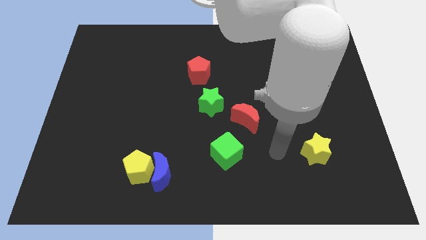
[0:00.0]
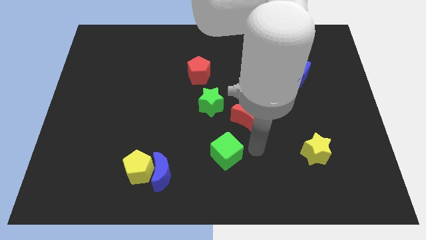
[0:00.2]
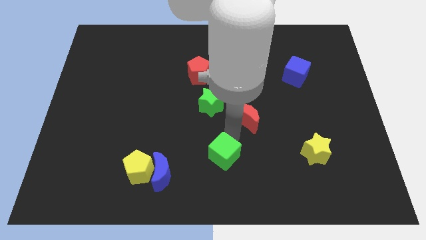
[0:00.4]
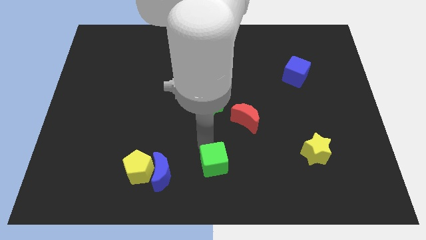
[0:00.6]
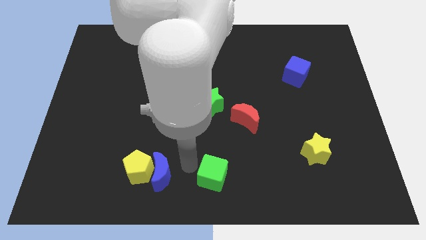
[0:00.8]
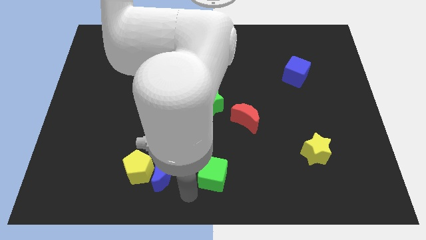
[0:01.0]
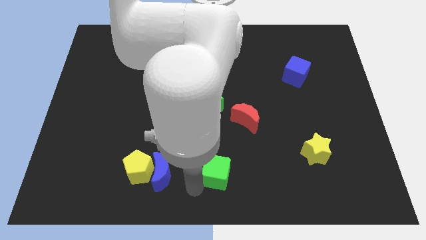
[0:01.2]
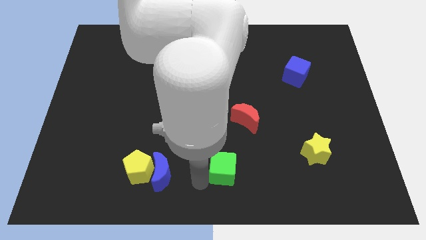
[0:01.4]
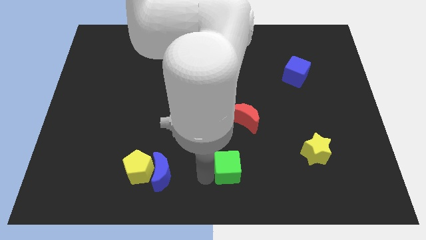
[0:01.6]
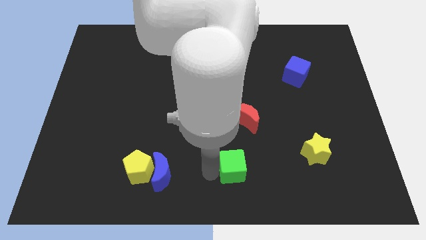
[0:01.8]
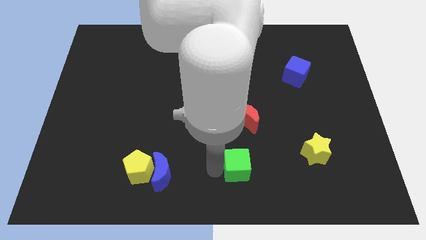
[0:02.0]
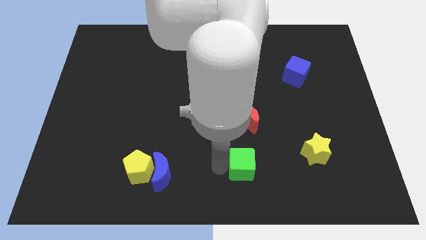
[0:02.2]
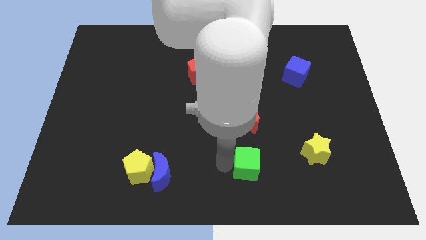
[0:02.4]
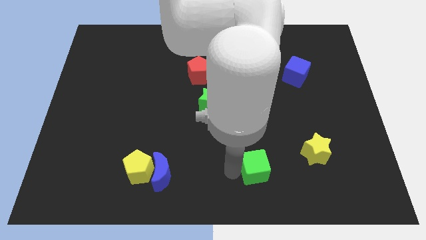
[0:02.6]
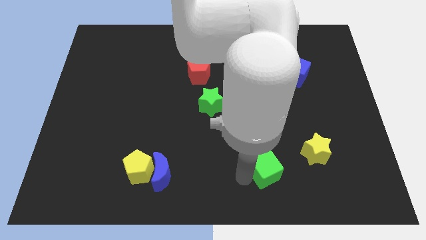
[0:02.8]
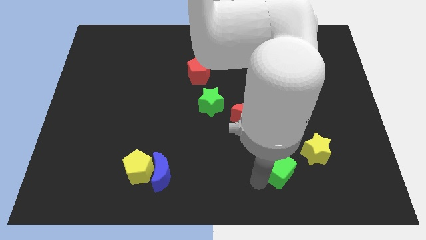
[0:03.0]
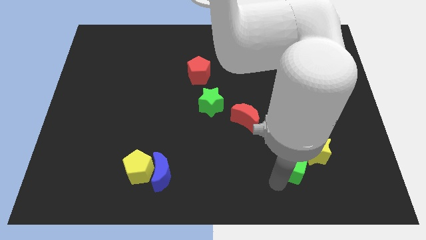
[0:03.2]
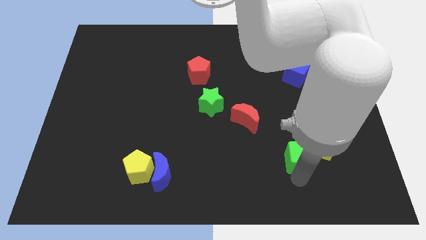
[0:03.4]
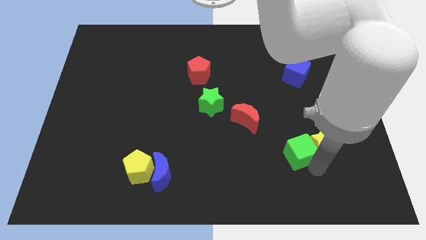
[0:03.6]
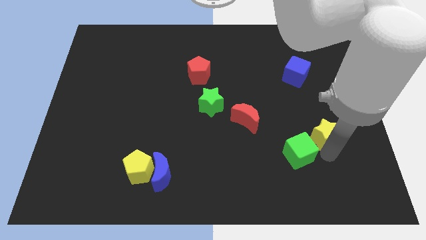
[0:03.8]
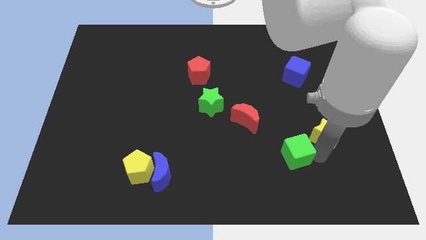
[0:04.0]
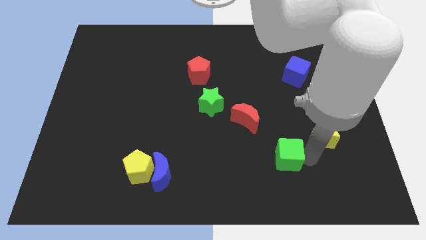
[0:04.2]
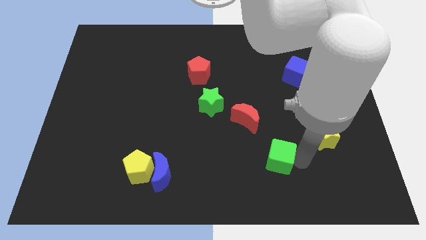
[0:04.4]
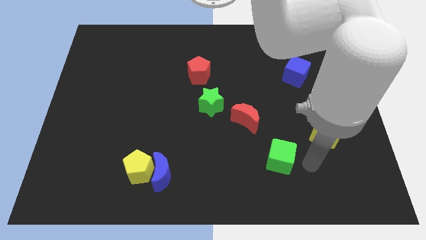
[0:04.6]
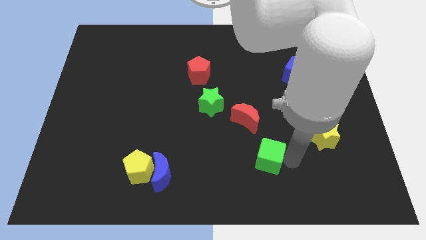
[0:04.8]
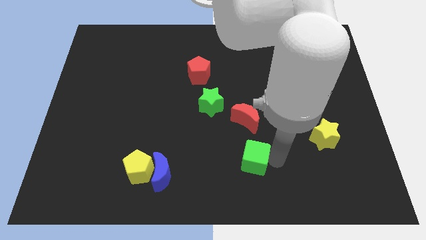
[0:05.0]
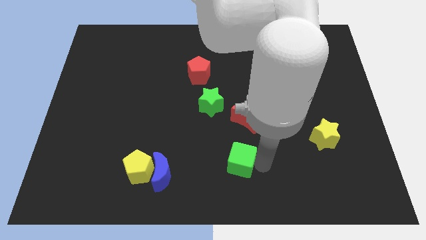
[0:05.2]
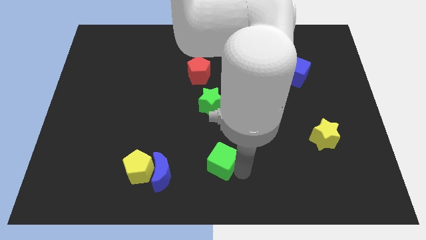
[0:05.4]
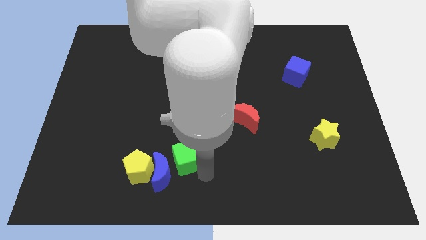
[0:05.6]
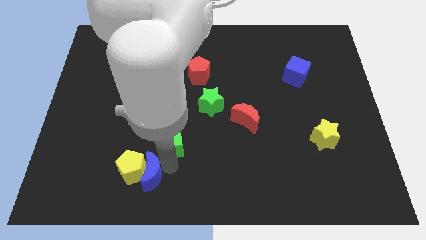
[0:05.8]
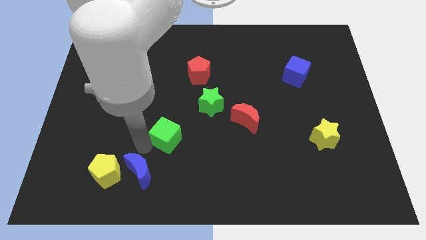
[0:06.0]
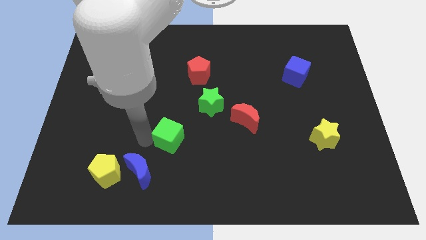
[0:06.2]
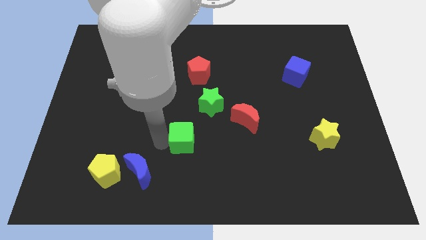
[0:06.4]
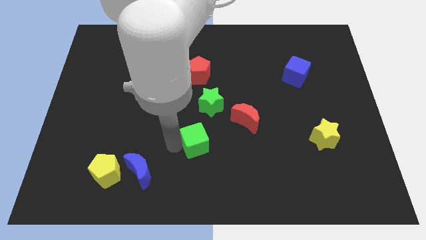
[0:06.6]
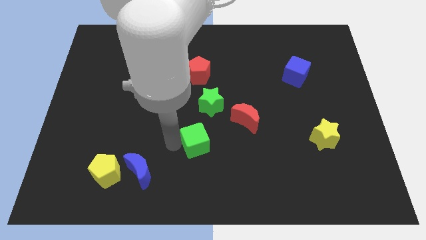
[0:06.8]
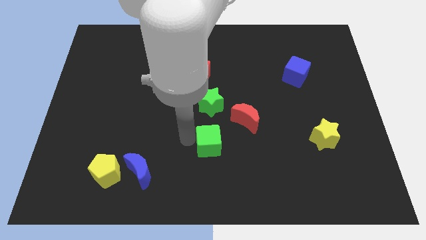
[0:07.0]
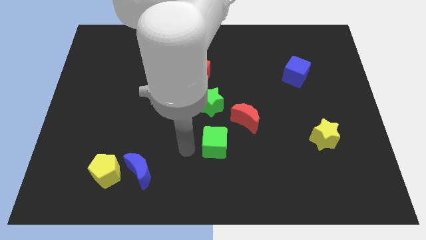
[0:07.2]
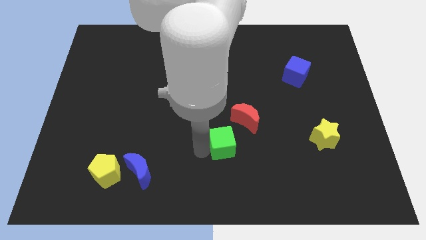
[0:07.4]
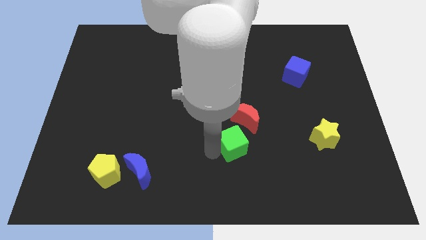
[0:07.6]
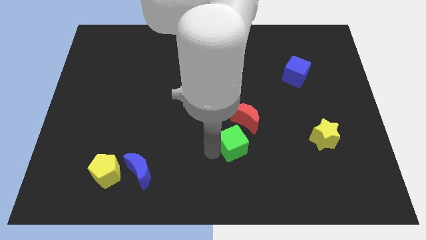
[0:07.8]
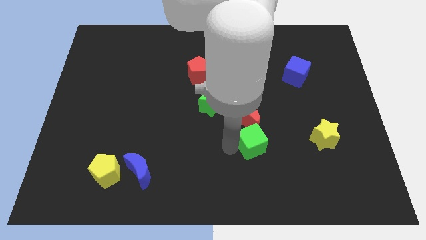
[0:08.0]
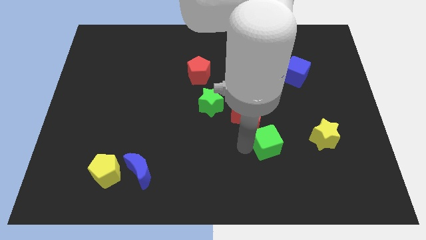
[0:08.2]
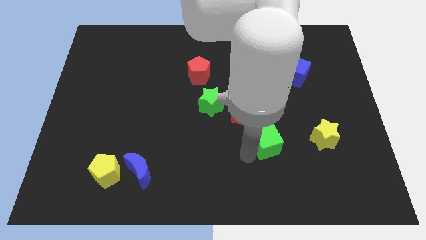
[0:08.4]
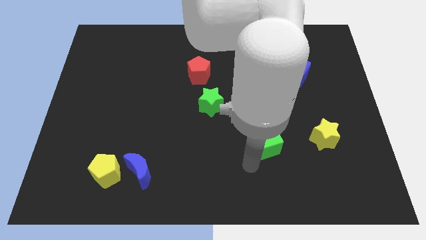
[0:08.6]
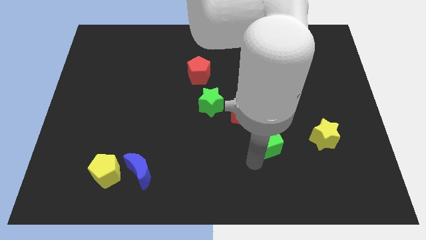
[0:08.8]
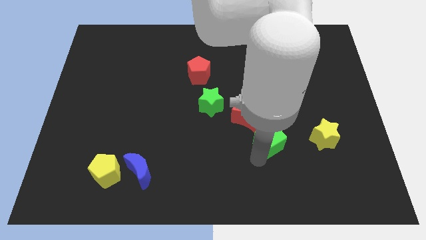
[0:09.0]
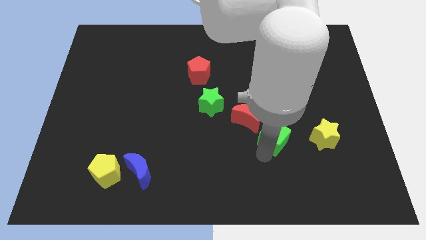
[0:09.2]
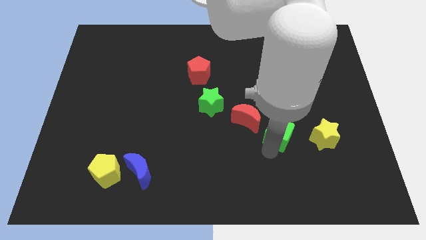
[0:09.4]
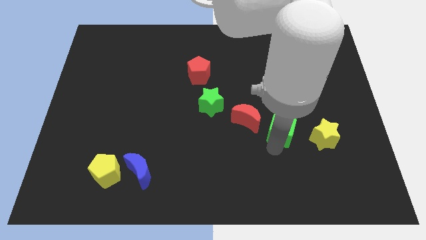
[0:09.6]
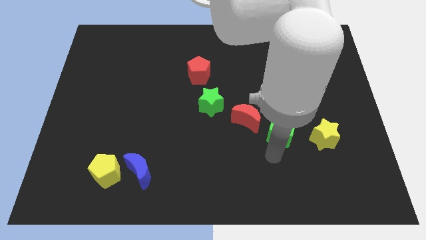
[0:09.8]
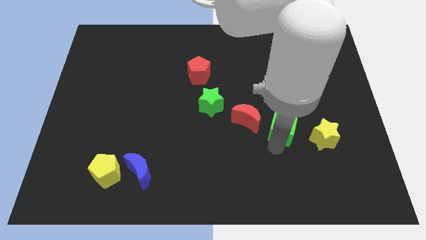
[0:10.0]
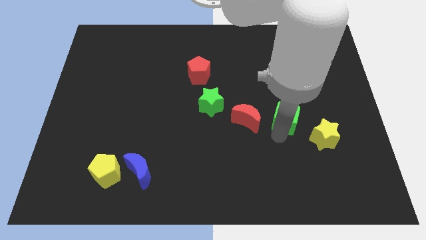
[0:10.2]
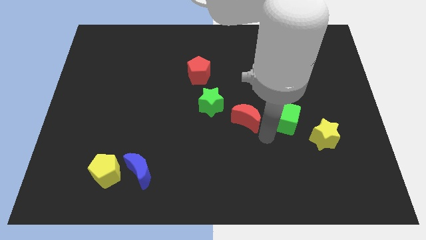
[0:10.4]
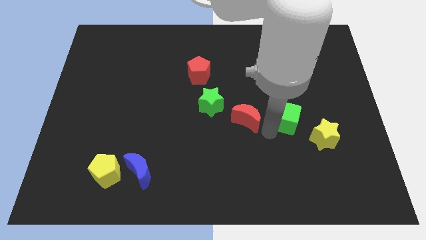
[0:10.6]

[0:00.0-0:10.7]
move the green cube to the bottom of the blue cube
